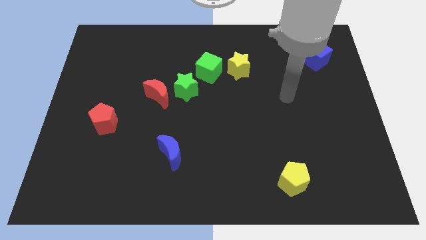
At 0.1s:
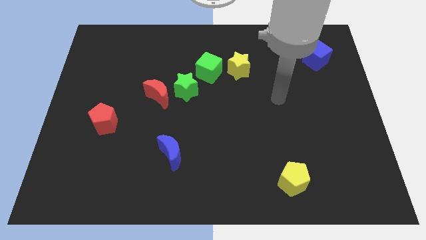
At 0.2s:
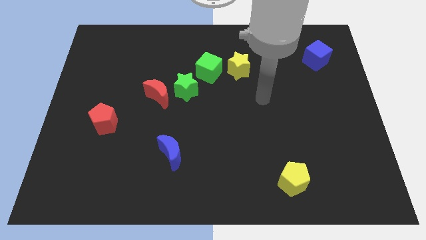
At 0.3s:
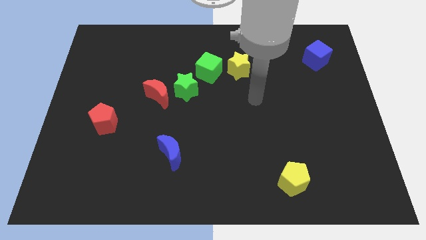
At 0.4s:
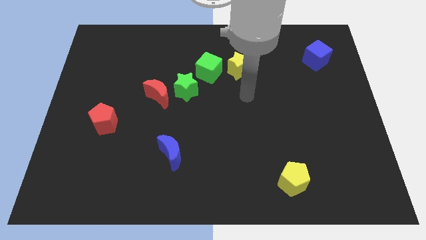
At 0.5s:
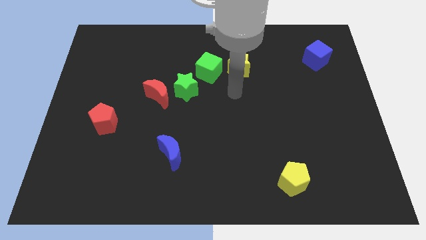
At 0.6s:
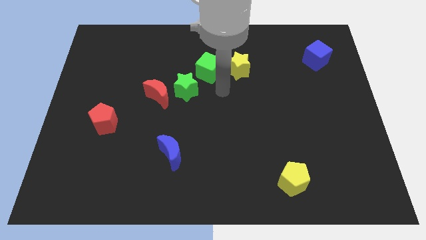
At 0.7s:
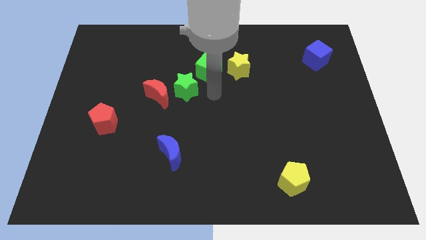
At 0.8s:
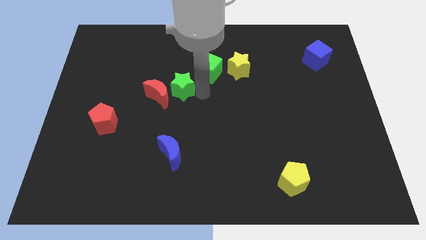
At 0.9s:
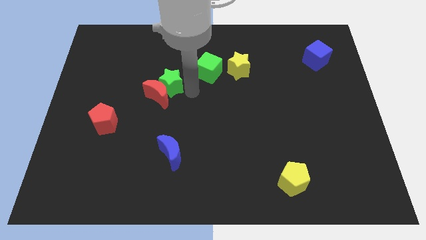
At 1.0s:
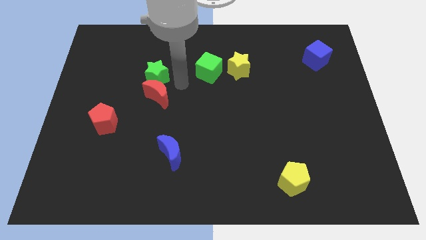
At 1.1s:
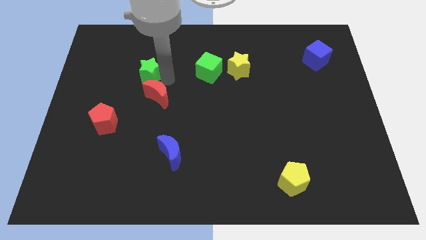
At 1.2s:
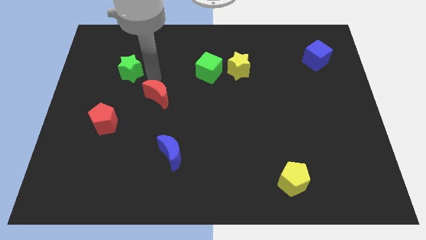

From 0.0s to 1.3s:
separate the red moon from the green star

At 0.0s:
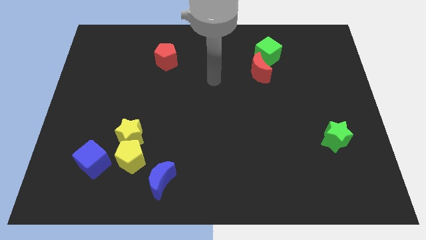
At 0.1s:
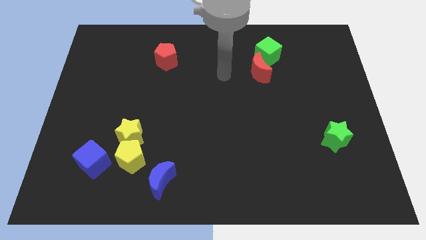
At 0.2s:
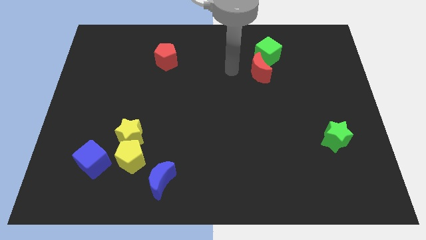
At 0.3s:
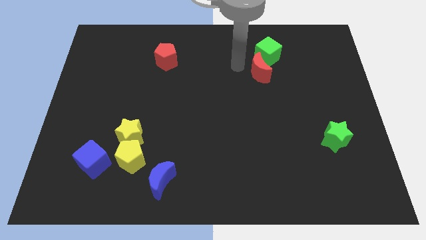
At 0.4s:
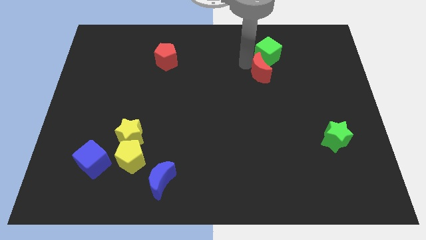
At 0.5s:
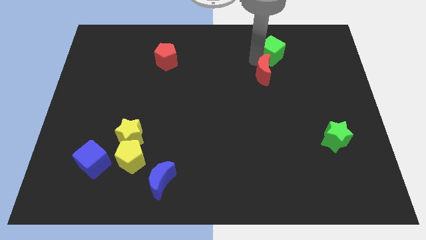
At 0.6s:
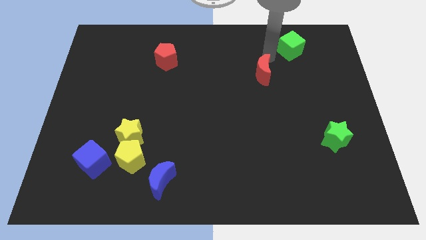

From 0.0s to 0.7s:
separate the red moon from the green cube

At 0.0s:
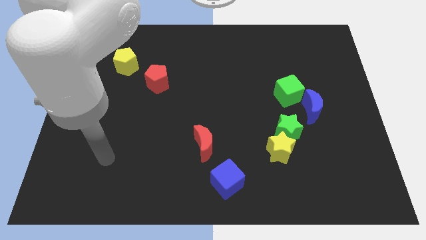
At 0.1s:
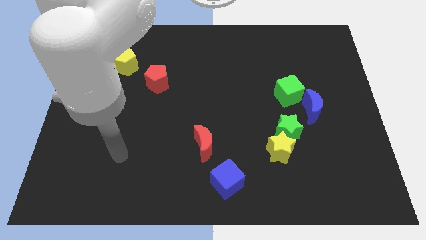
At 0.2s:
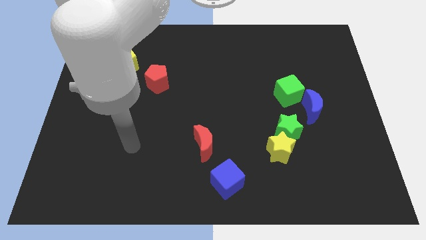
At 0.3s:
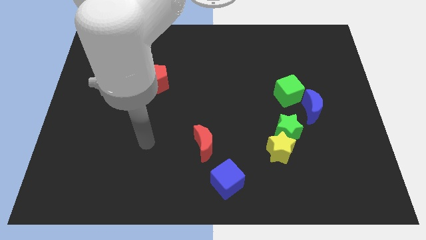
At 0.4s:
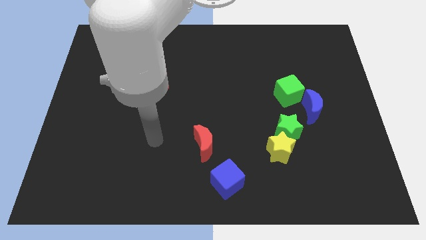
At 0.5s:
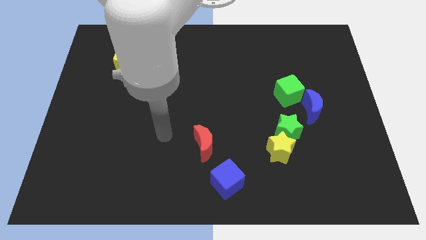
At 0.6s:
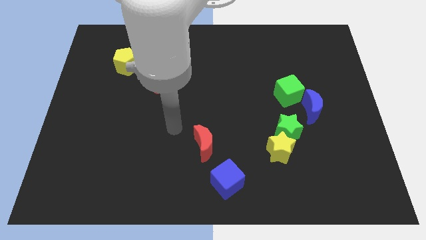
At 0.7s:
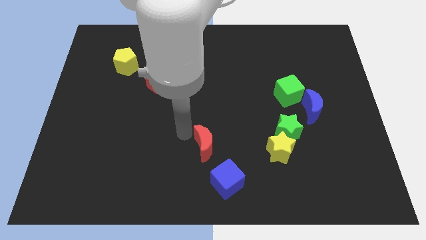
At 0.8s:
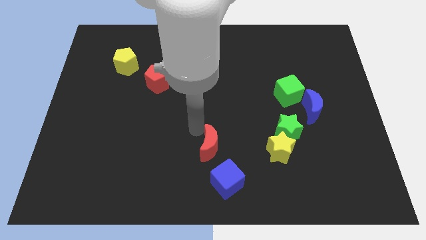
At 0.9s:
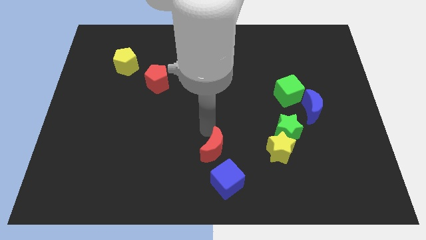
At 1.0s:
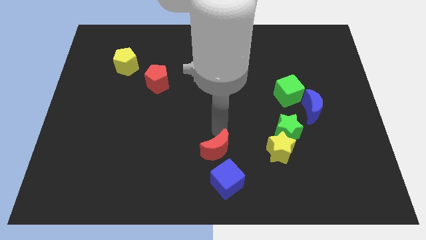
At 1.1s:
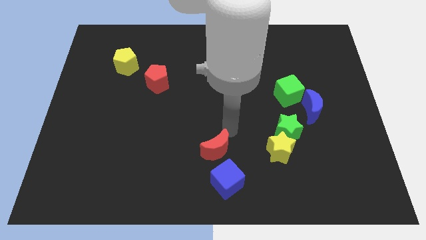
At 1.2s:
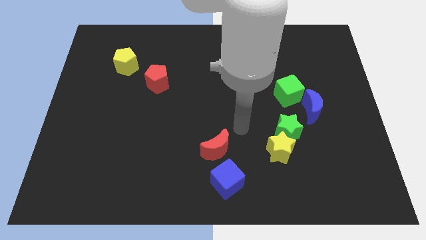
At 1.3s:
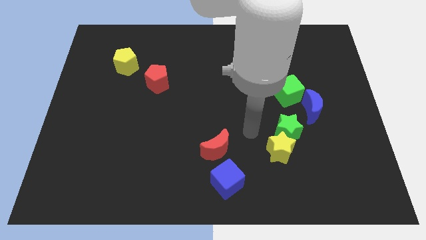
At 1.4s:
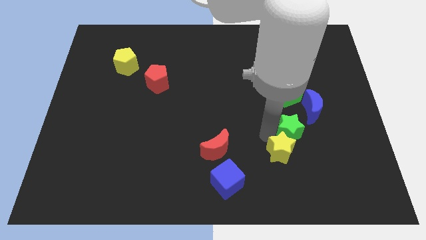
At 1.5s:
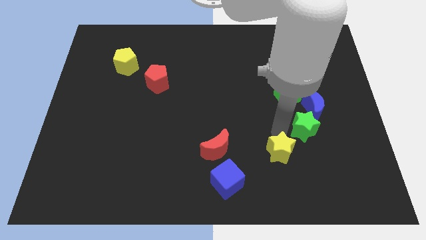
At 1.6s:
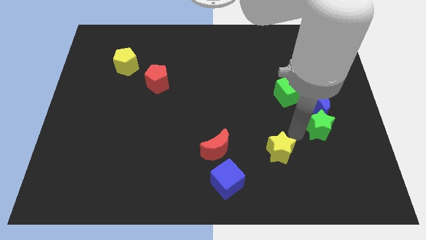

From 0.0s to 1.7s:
separate the yellow star from the green star

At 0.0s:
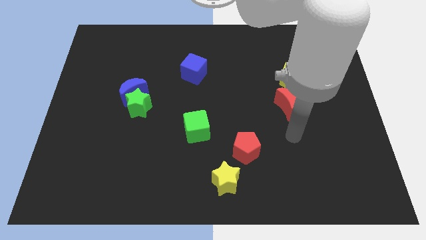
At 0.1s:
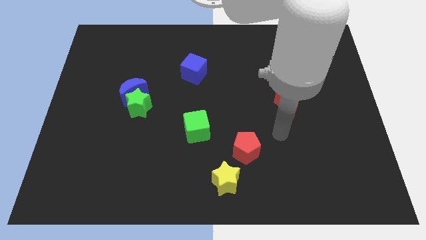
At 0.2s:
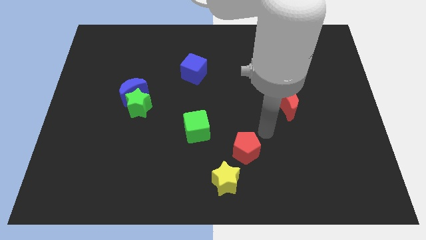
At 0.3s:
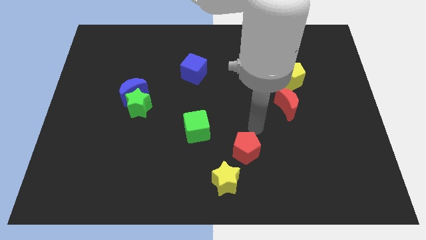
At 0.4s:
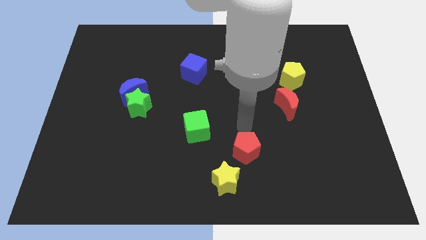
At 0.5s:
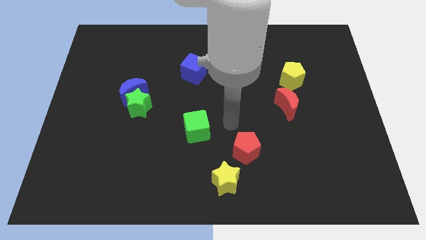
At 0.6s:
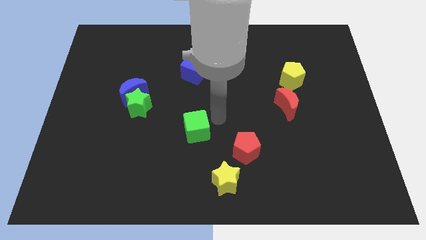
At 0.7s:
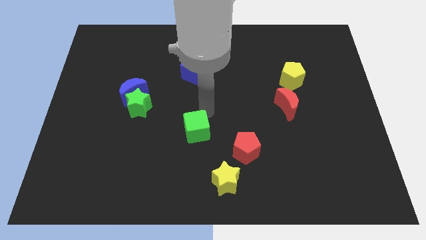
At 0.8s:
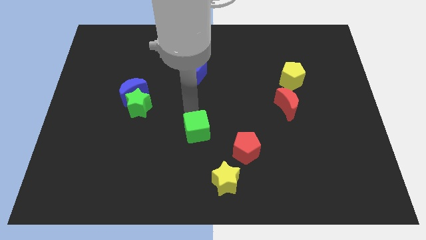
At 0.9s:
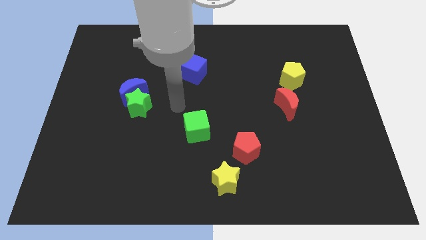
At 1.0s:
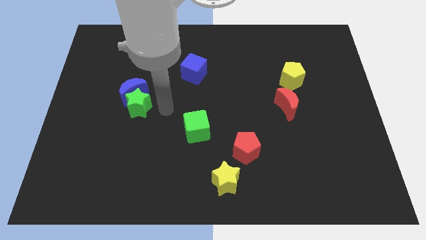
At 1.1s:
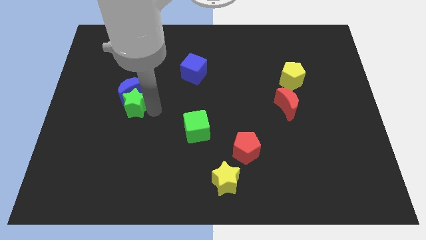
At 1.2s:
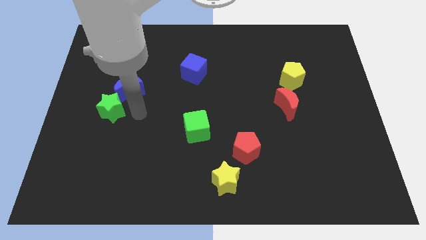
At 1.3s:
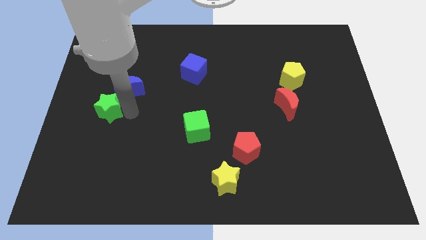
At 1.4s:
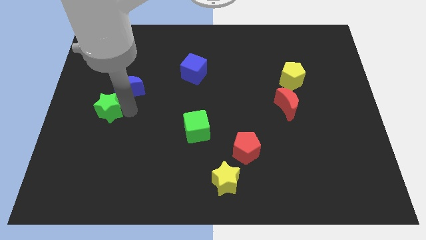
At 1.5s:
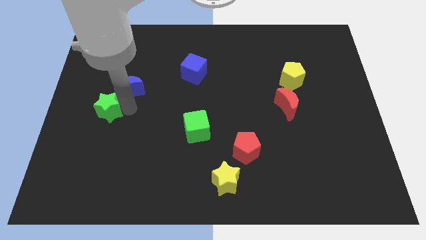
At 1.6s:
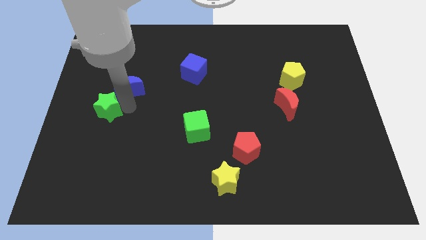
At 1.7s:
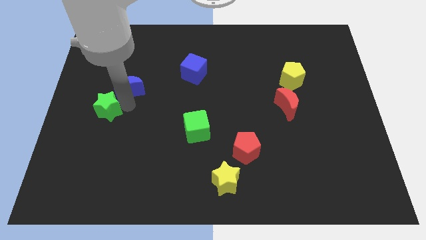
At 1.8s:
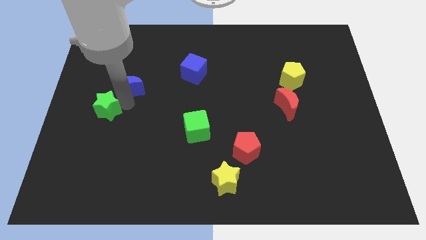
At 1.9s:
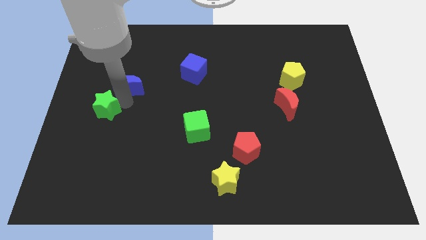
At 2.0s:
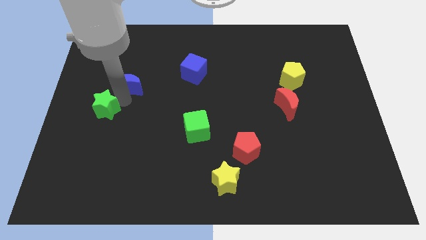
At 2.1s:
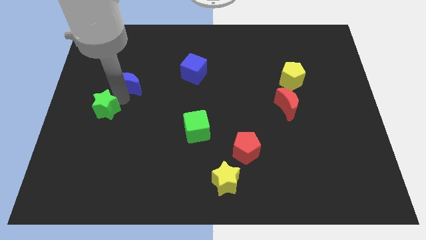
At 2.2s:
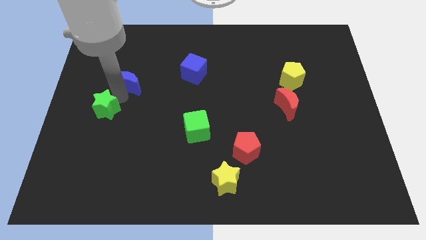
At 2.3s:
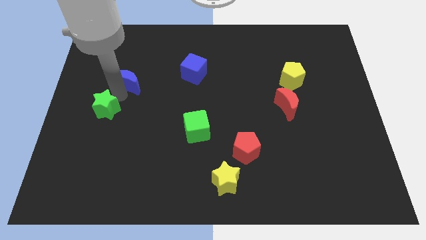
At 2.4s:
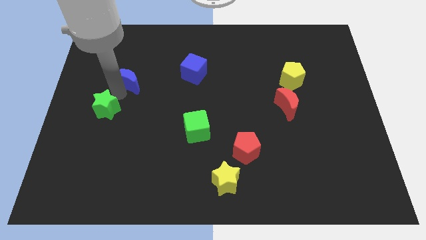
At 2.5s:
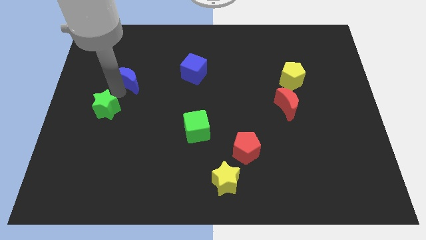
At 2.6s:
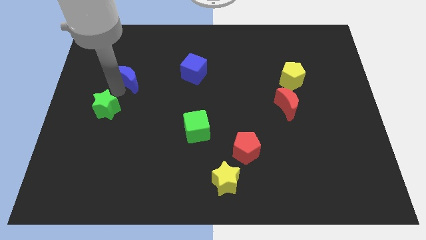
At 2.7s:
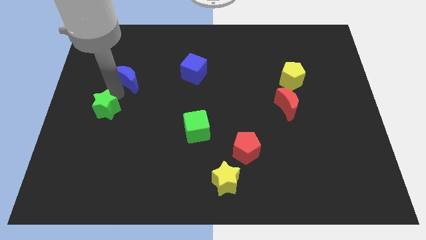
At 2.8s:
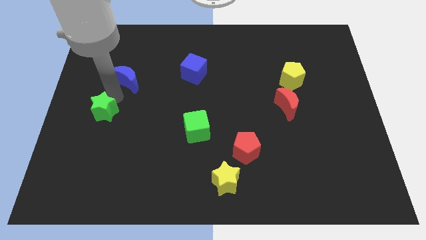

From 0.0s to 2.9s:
move the blue moon away from the green star

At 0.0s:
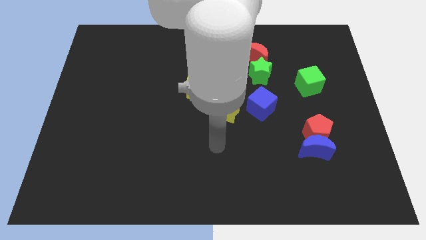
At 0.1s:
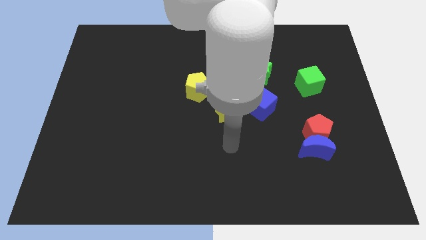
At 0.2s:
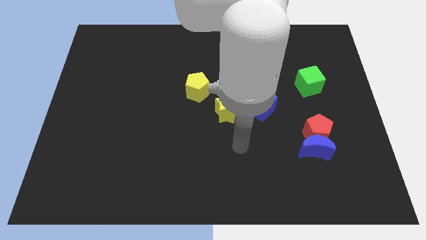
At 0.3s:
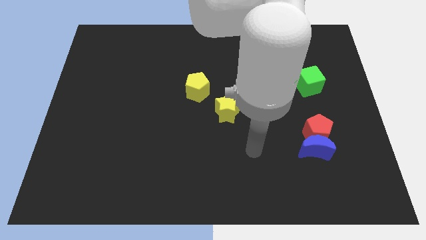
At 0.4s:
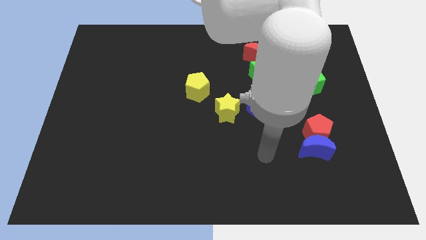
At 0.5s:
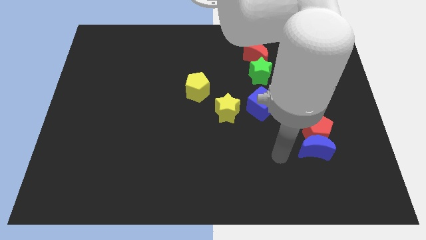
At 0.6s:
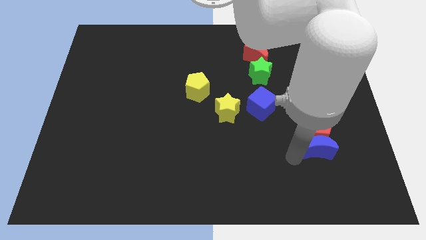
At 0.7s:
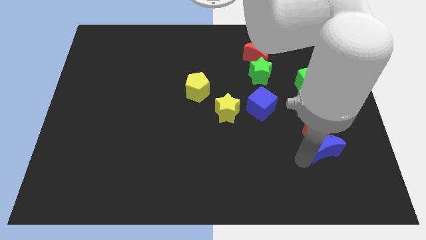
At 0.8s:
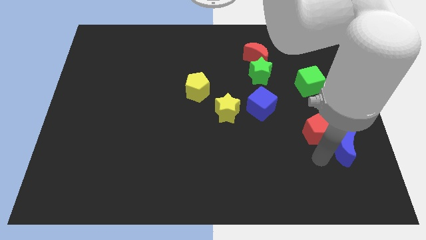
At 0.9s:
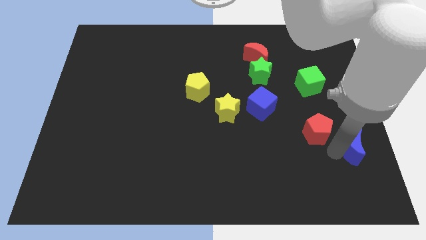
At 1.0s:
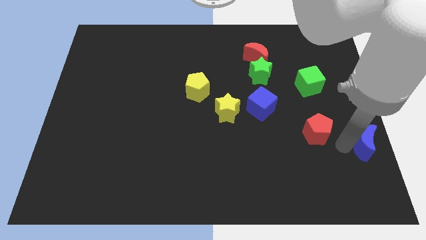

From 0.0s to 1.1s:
move the red pentagon away from the blue moon

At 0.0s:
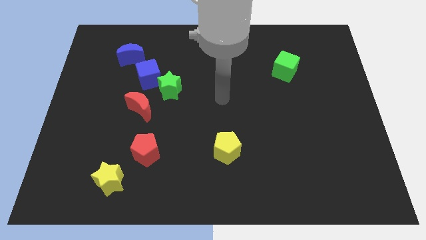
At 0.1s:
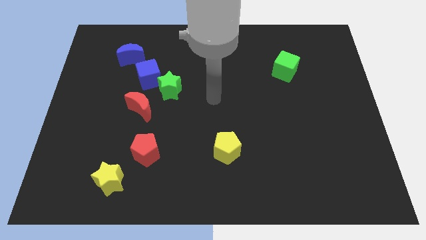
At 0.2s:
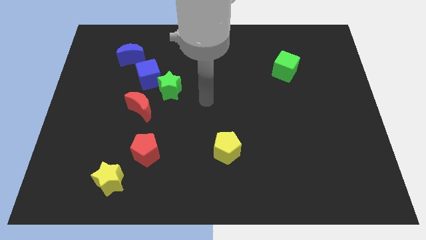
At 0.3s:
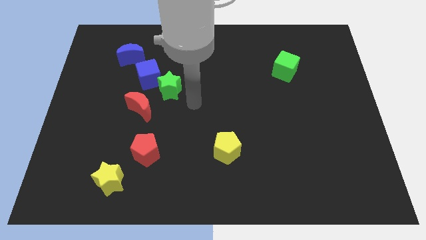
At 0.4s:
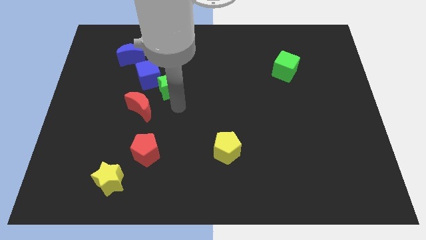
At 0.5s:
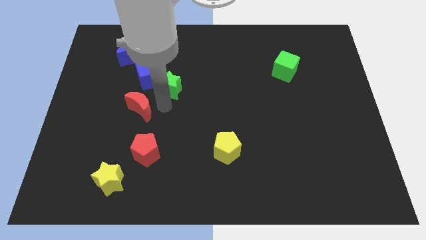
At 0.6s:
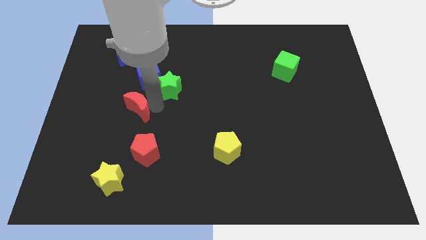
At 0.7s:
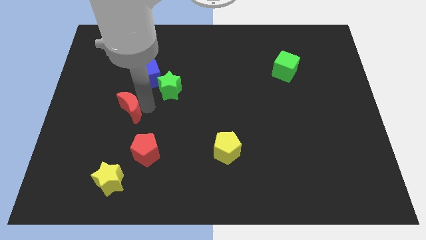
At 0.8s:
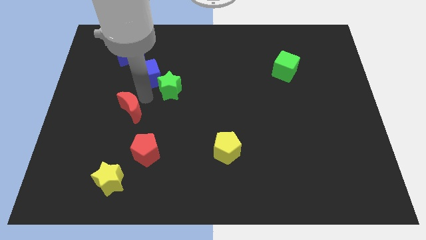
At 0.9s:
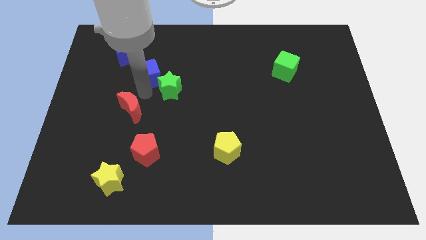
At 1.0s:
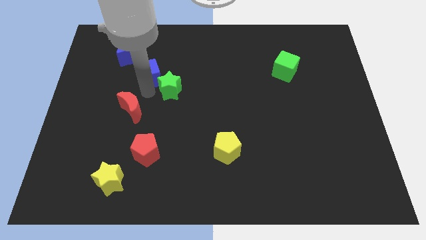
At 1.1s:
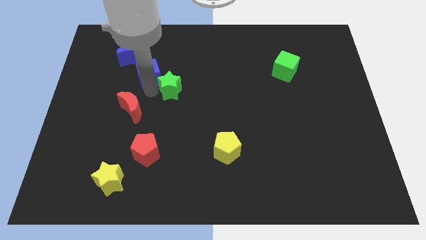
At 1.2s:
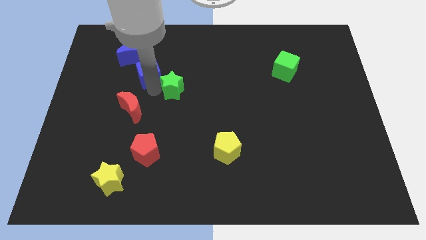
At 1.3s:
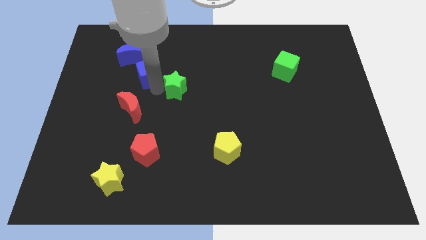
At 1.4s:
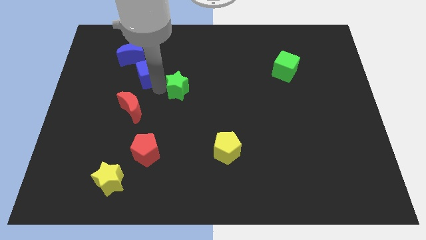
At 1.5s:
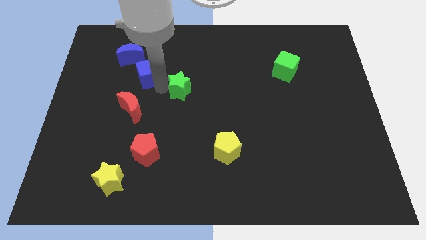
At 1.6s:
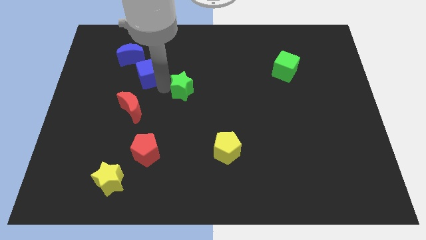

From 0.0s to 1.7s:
move the green star away from the blue cube and red moon
